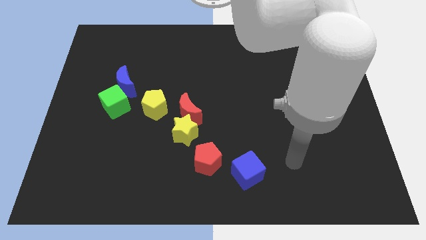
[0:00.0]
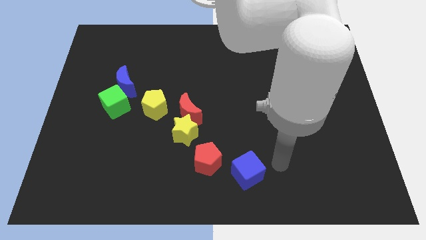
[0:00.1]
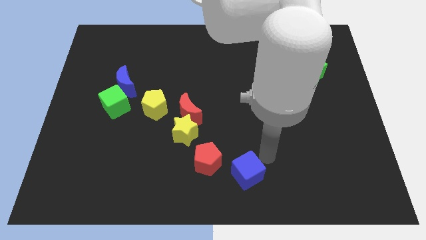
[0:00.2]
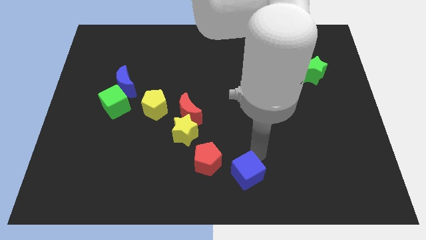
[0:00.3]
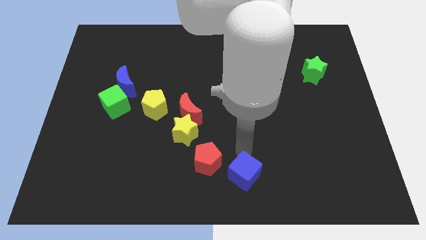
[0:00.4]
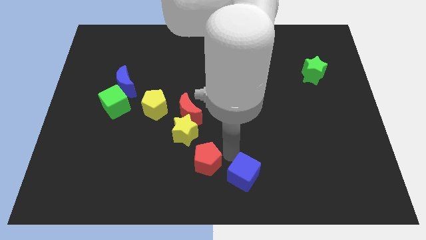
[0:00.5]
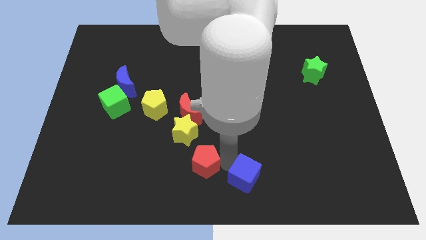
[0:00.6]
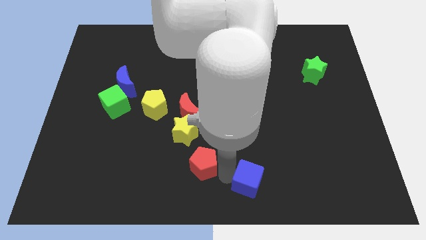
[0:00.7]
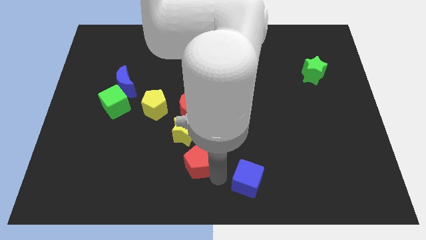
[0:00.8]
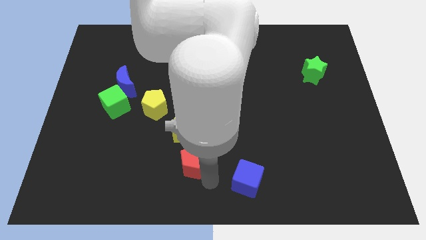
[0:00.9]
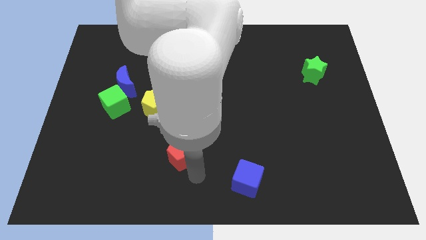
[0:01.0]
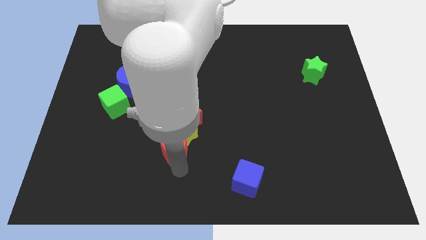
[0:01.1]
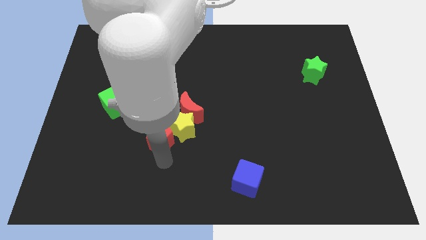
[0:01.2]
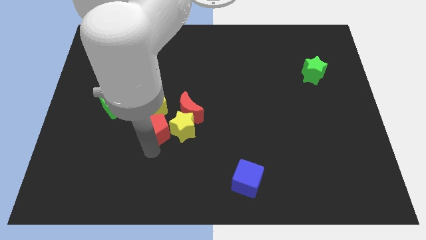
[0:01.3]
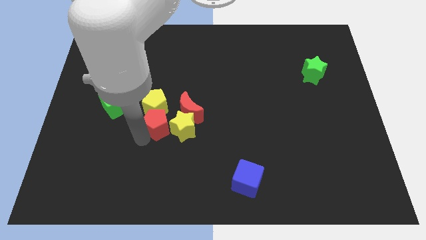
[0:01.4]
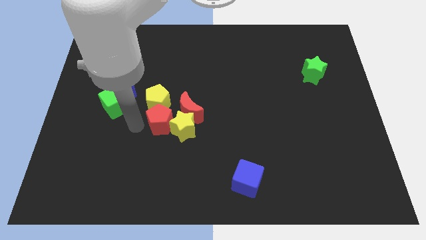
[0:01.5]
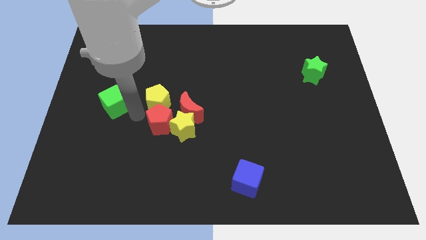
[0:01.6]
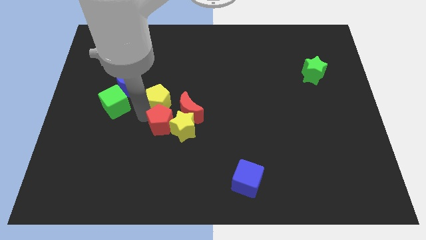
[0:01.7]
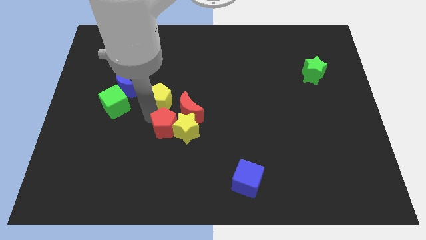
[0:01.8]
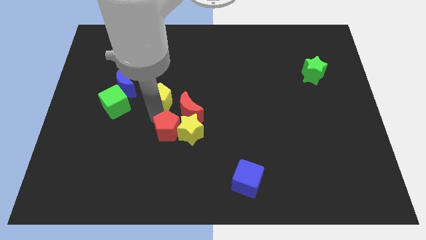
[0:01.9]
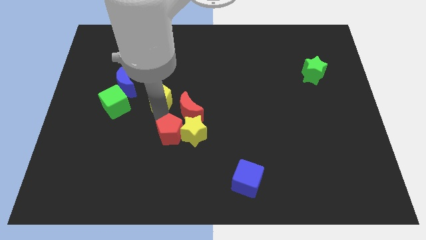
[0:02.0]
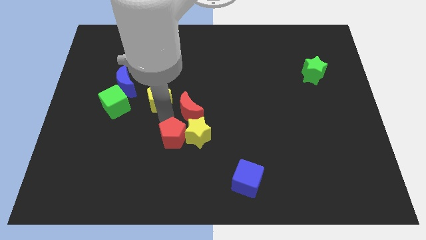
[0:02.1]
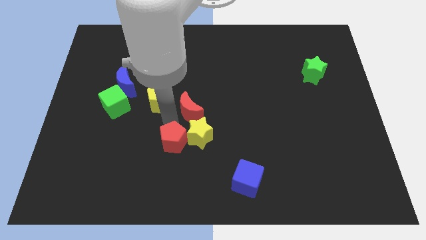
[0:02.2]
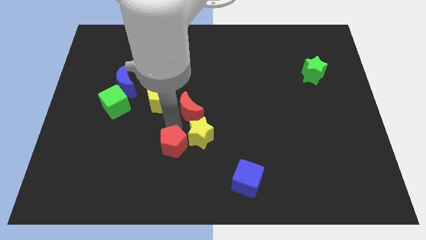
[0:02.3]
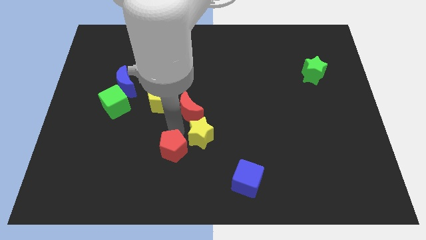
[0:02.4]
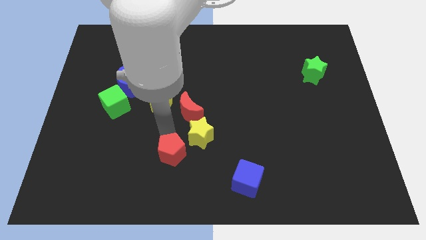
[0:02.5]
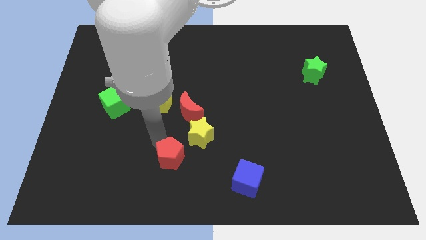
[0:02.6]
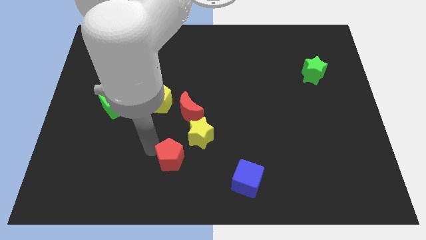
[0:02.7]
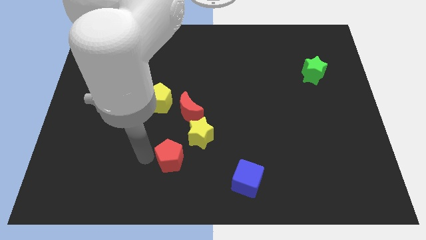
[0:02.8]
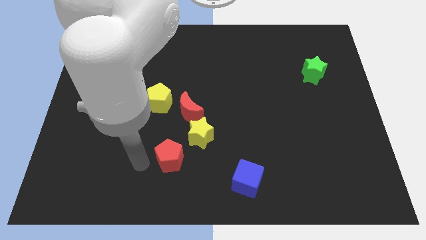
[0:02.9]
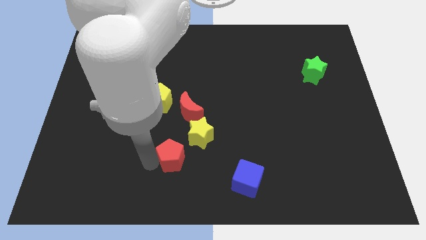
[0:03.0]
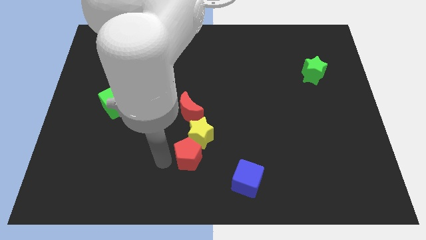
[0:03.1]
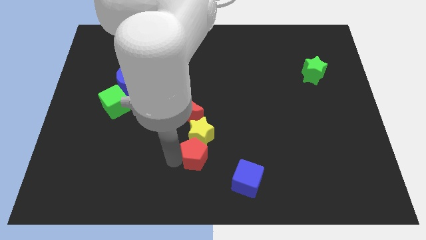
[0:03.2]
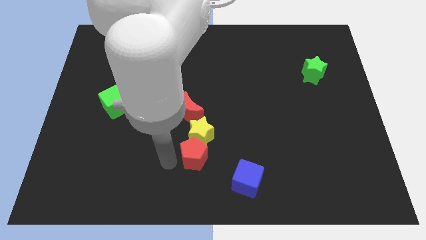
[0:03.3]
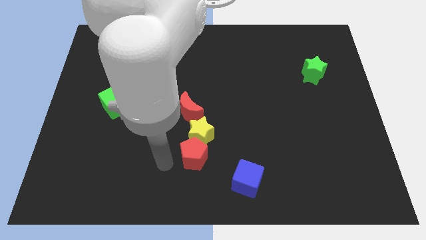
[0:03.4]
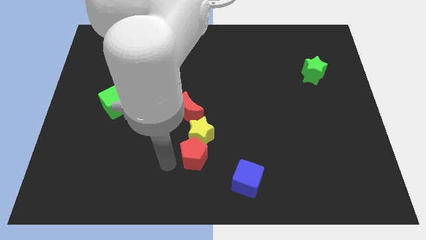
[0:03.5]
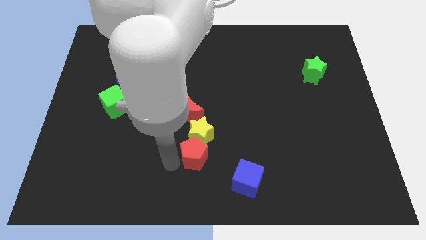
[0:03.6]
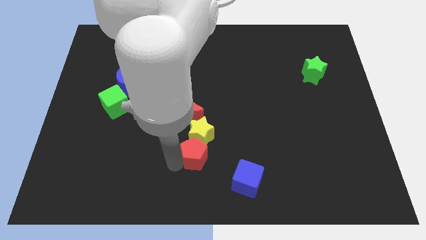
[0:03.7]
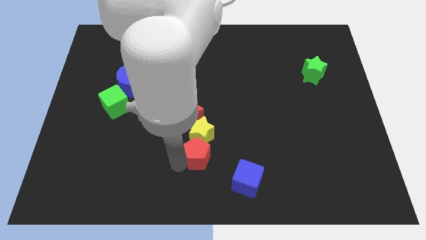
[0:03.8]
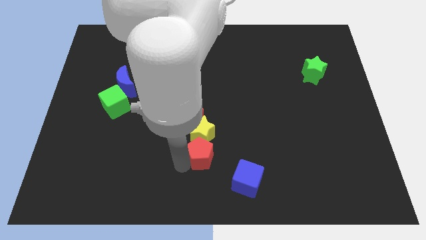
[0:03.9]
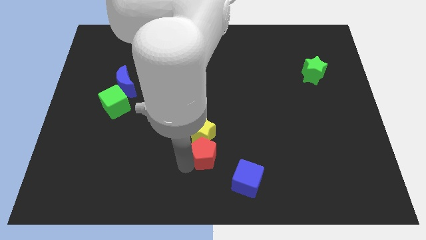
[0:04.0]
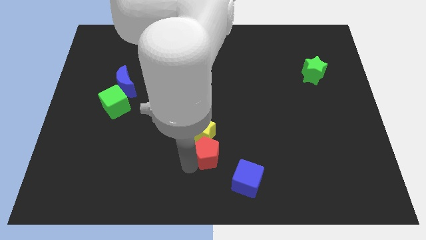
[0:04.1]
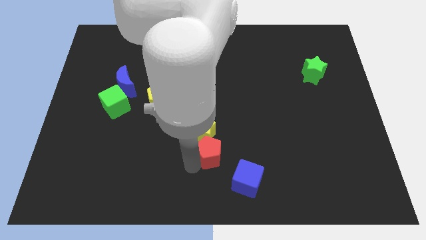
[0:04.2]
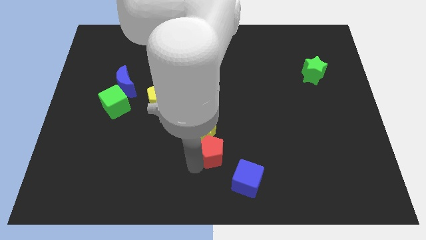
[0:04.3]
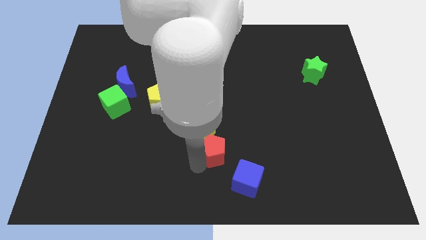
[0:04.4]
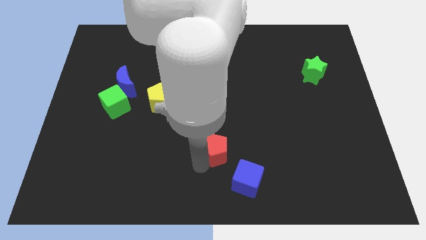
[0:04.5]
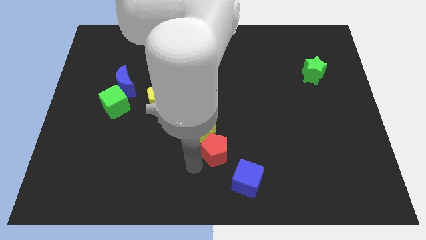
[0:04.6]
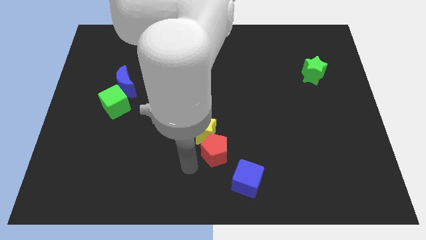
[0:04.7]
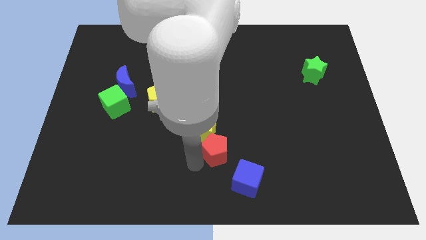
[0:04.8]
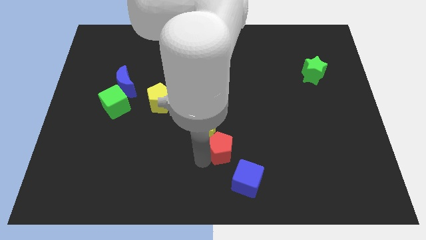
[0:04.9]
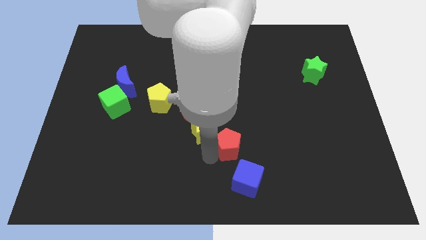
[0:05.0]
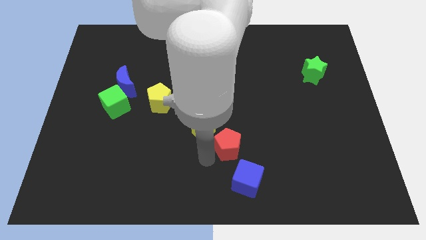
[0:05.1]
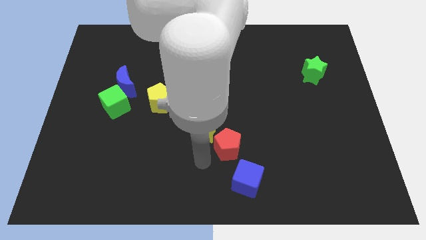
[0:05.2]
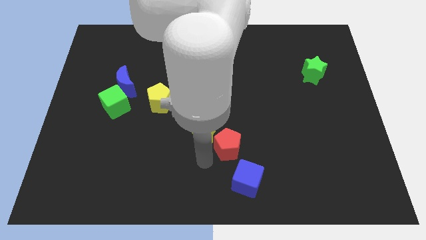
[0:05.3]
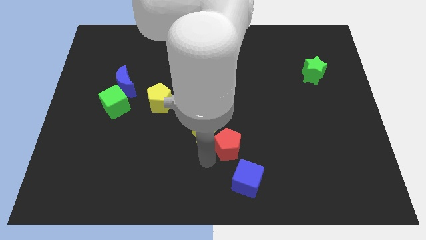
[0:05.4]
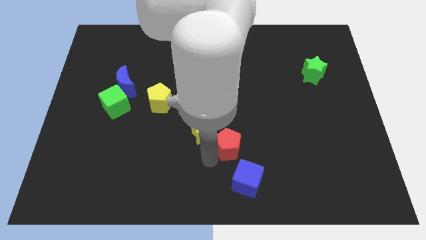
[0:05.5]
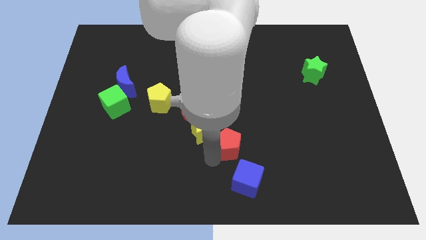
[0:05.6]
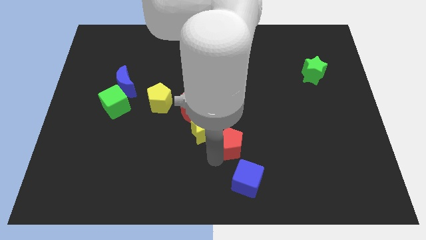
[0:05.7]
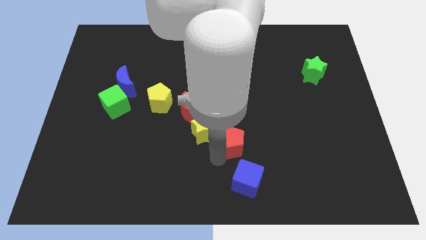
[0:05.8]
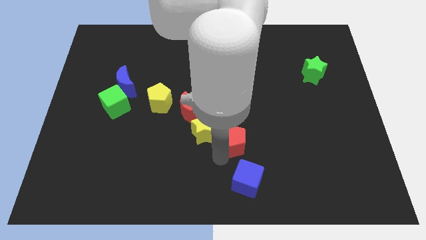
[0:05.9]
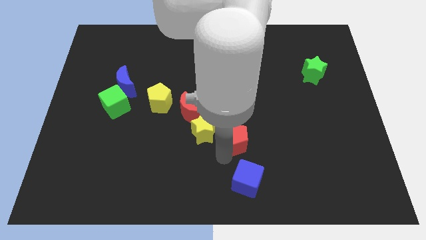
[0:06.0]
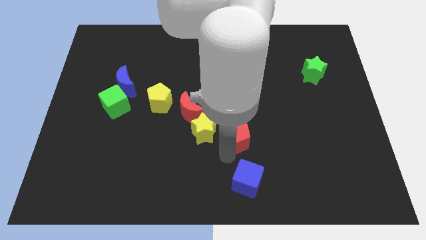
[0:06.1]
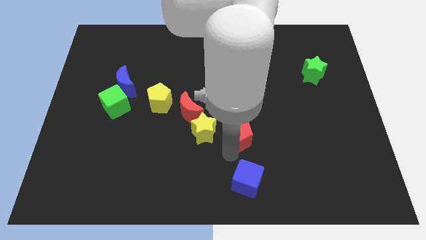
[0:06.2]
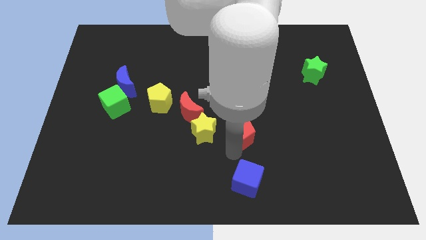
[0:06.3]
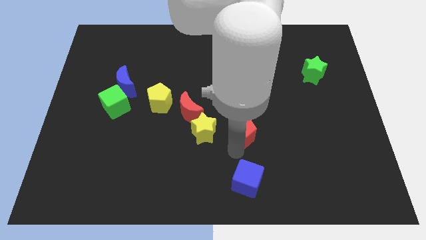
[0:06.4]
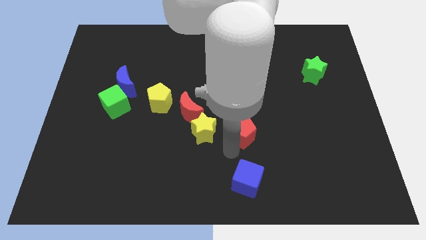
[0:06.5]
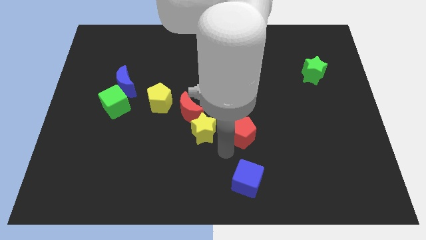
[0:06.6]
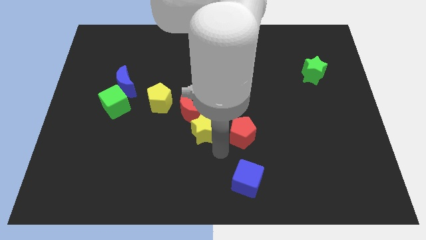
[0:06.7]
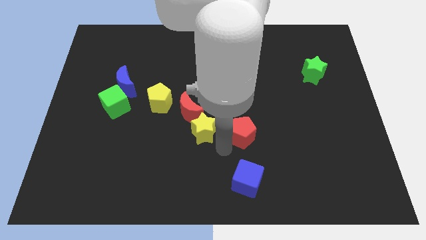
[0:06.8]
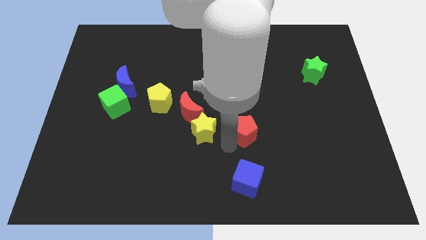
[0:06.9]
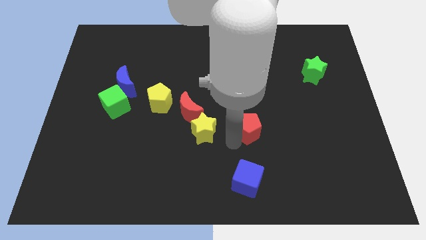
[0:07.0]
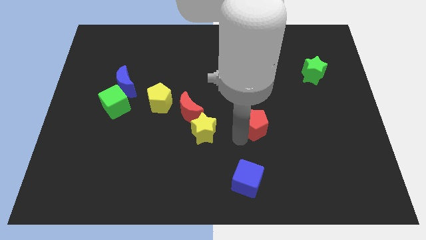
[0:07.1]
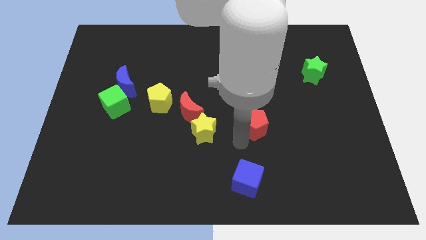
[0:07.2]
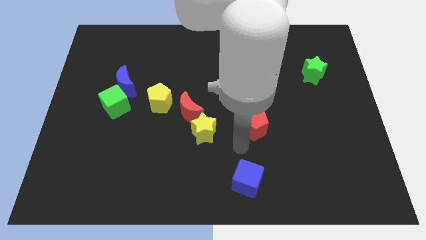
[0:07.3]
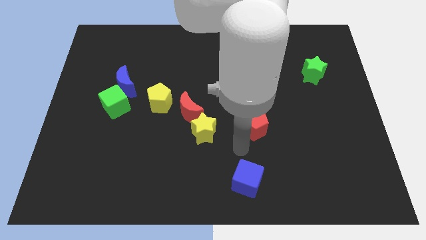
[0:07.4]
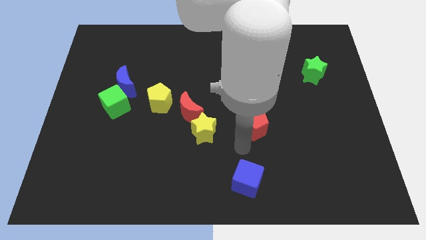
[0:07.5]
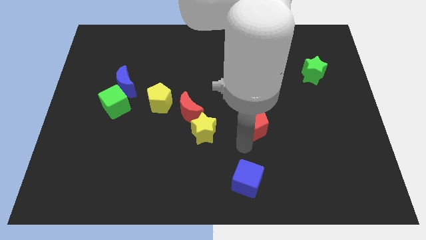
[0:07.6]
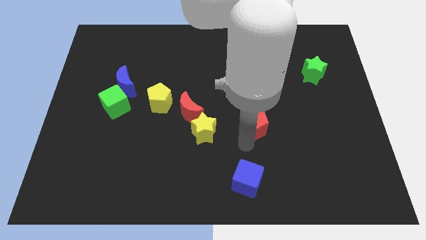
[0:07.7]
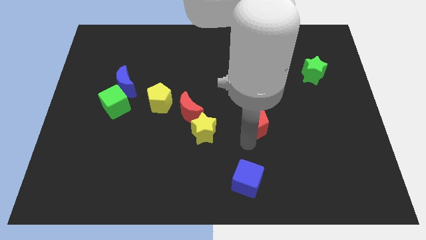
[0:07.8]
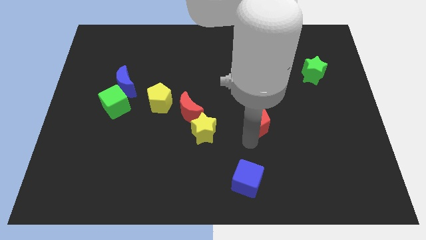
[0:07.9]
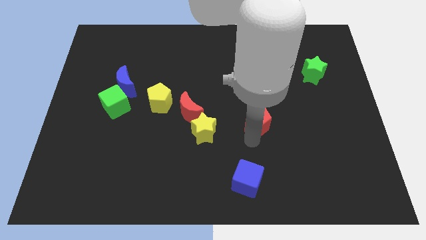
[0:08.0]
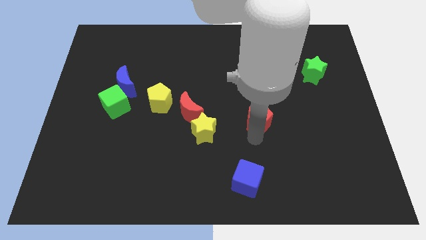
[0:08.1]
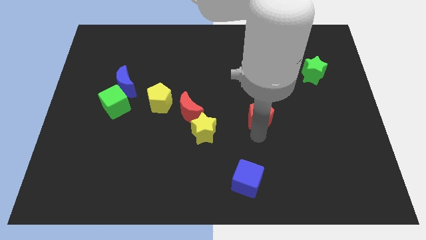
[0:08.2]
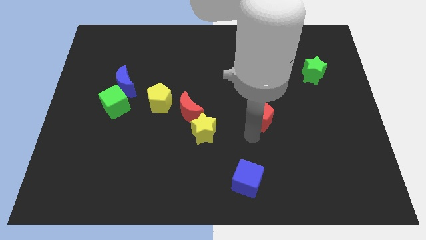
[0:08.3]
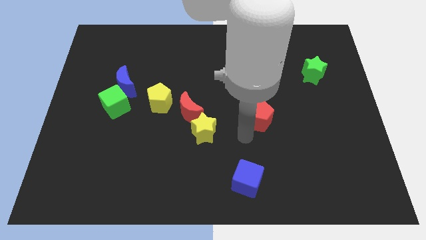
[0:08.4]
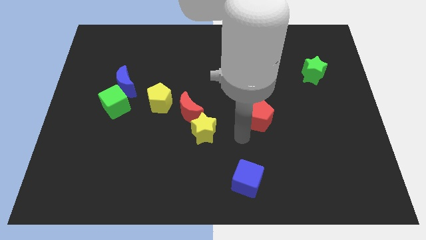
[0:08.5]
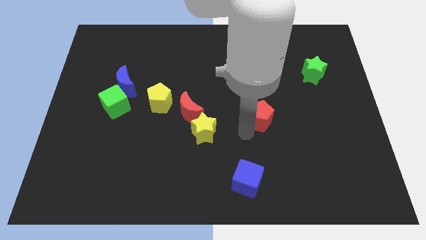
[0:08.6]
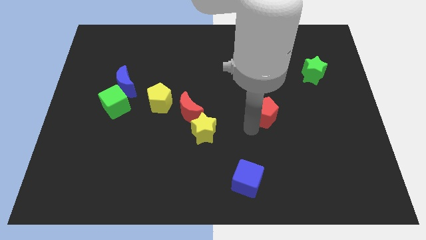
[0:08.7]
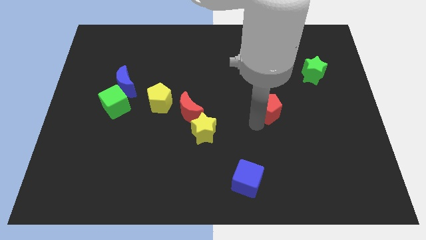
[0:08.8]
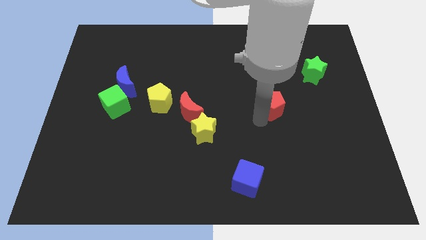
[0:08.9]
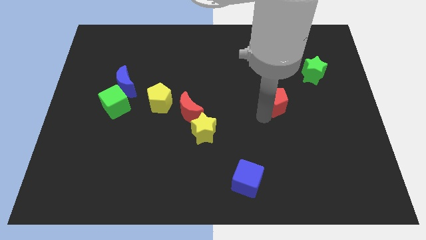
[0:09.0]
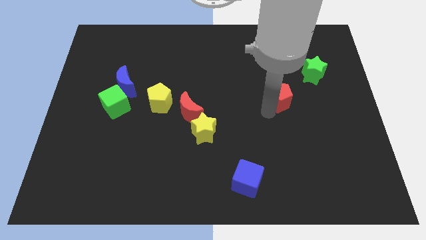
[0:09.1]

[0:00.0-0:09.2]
move the red pentagon to the bottom left side of the green star
